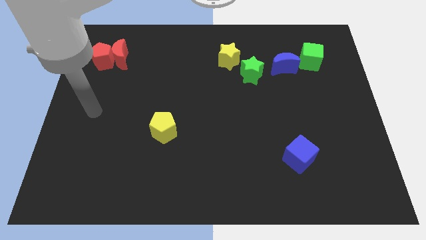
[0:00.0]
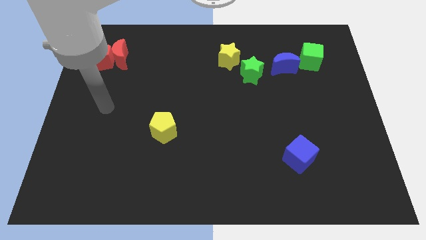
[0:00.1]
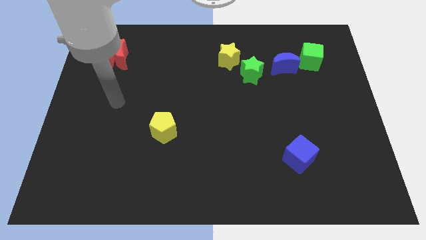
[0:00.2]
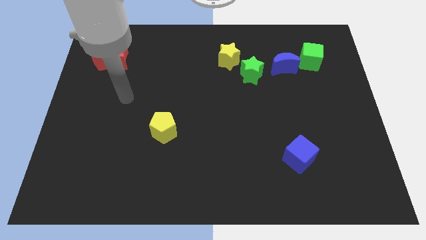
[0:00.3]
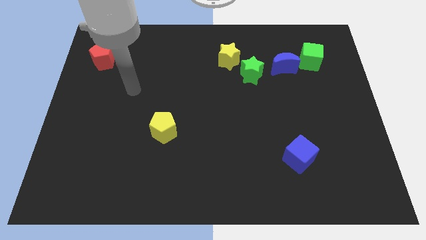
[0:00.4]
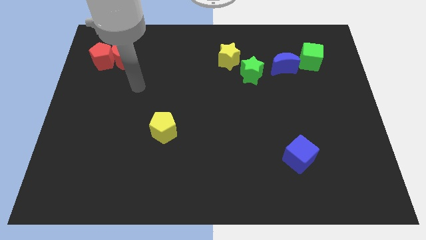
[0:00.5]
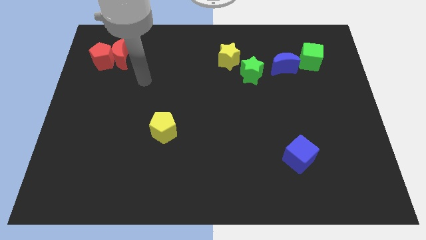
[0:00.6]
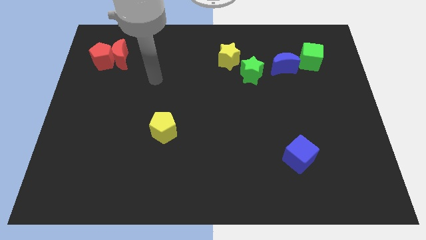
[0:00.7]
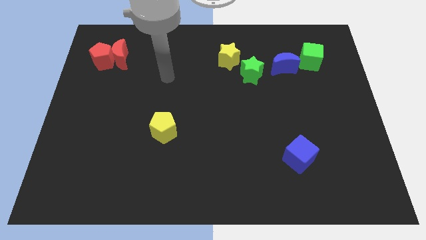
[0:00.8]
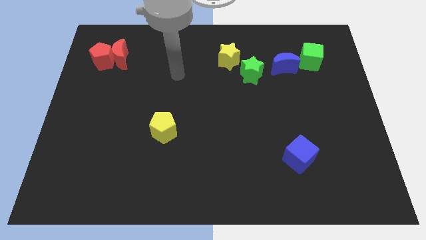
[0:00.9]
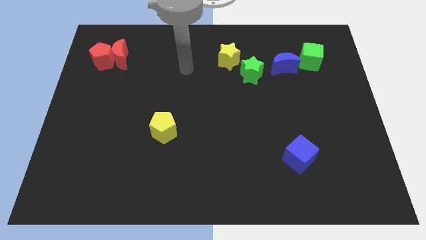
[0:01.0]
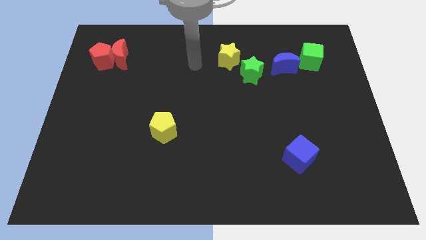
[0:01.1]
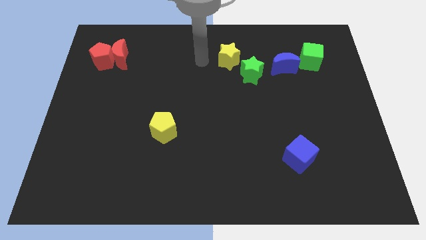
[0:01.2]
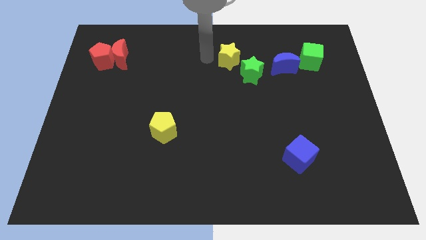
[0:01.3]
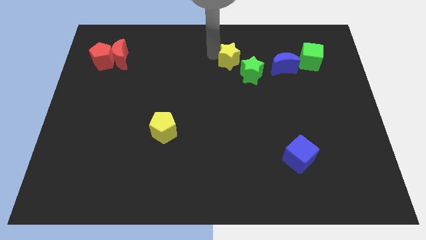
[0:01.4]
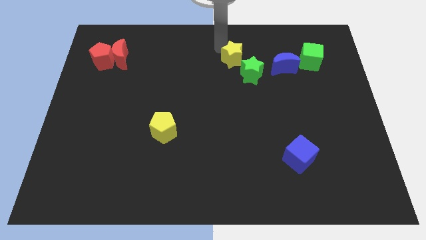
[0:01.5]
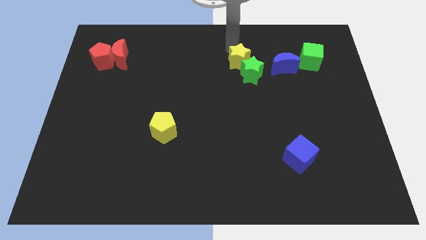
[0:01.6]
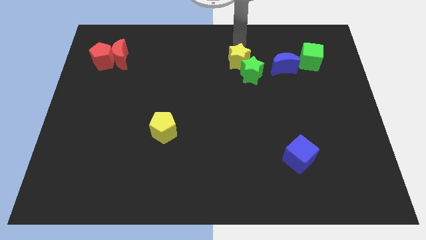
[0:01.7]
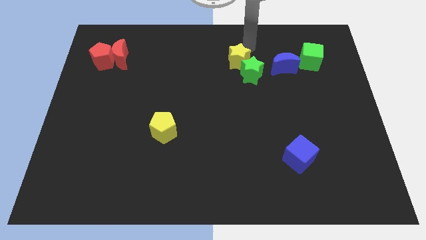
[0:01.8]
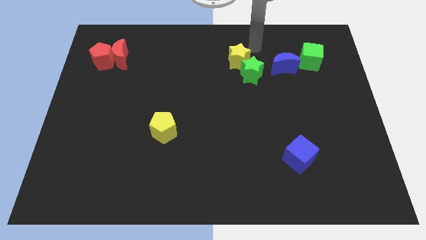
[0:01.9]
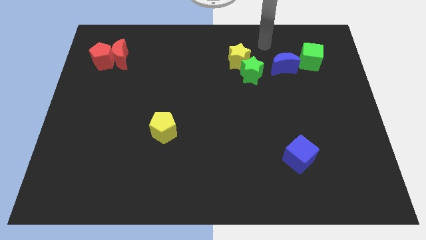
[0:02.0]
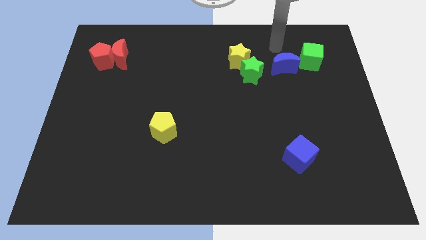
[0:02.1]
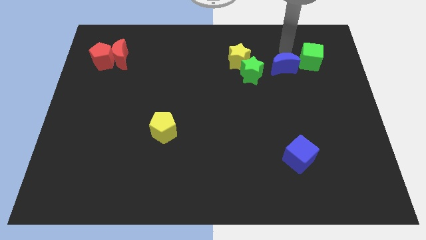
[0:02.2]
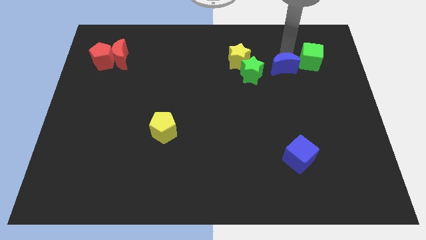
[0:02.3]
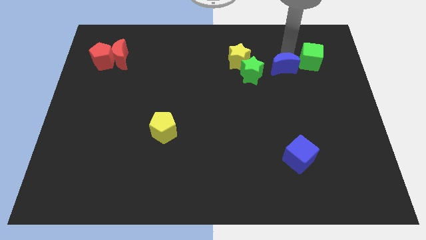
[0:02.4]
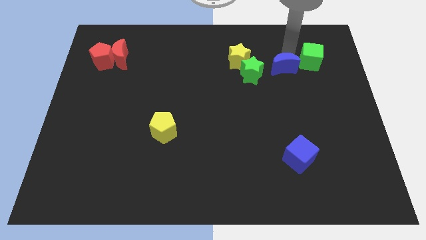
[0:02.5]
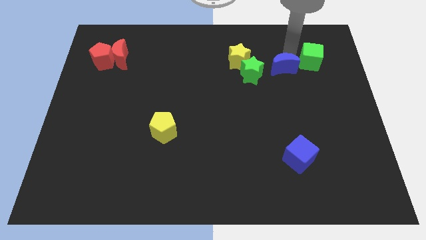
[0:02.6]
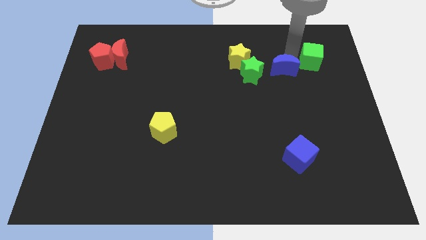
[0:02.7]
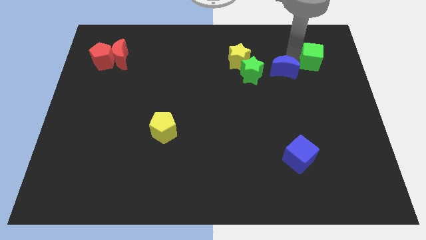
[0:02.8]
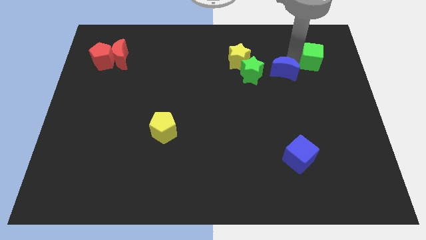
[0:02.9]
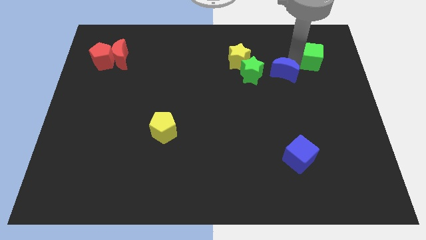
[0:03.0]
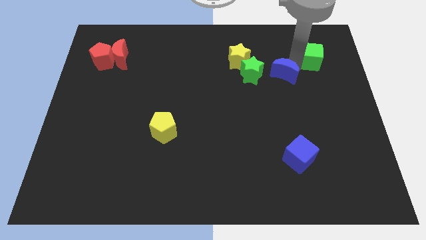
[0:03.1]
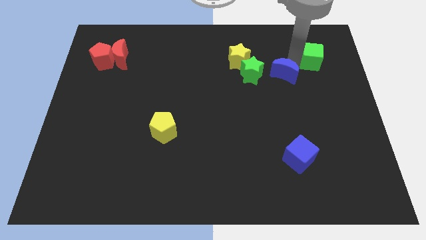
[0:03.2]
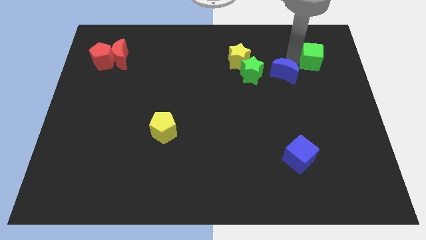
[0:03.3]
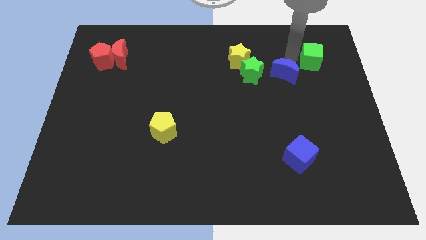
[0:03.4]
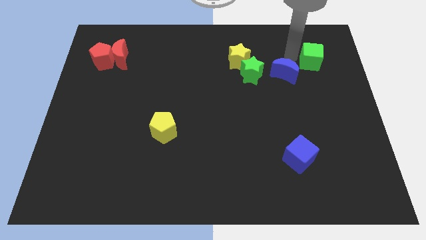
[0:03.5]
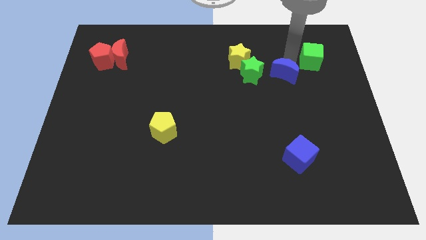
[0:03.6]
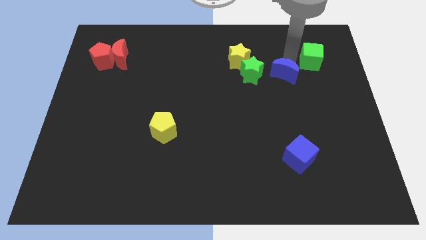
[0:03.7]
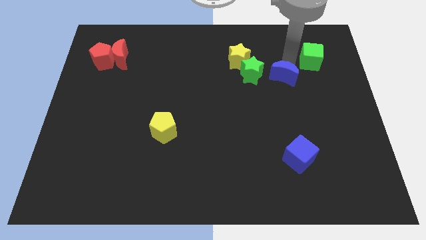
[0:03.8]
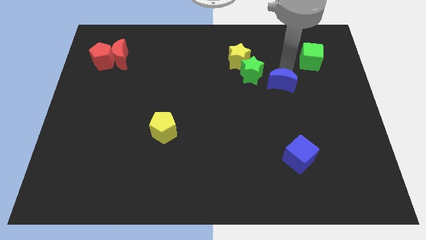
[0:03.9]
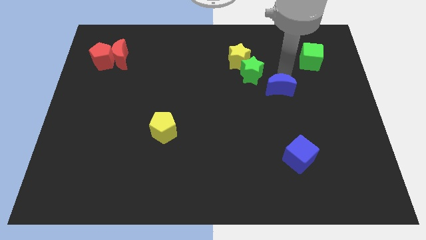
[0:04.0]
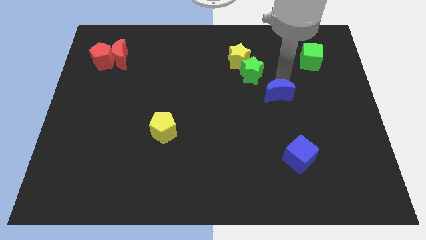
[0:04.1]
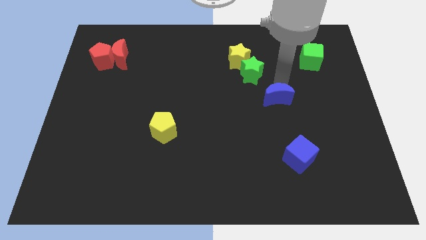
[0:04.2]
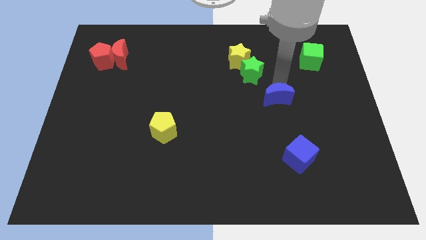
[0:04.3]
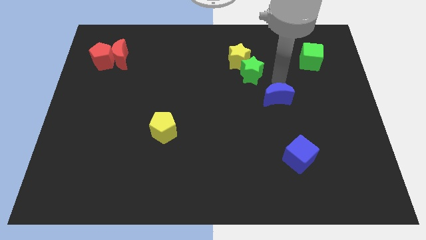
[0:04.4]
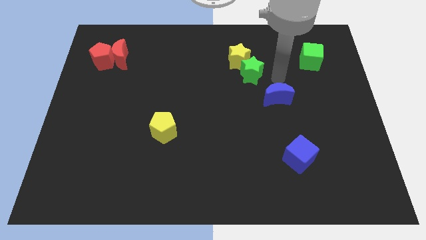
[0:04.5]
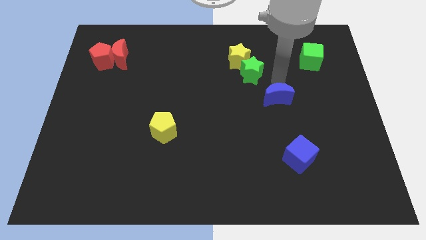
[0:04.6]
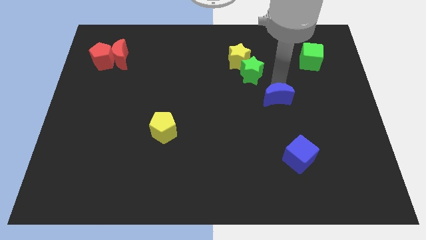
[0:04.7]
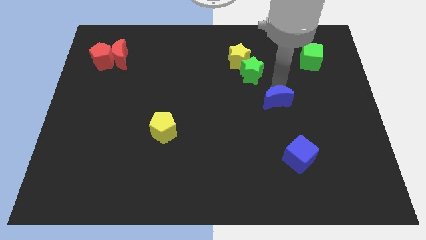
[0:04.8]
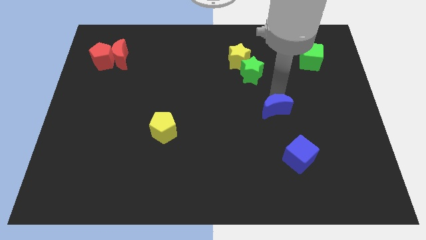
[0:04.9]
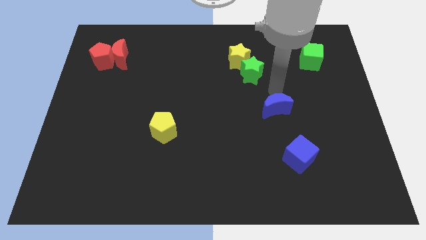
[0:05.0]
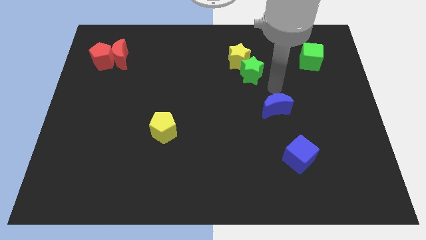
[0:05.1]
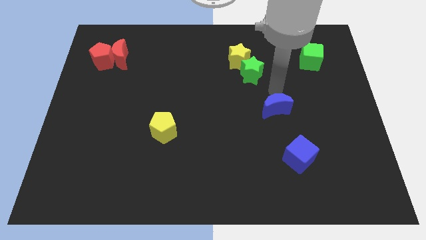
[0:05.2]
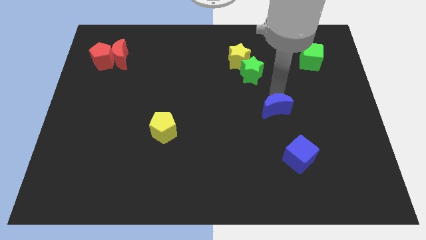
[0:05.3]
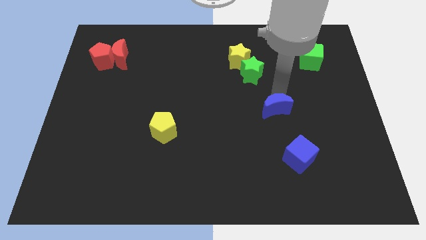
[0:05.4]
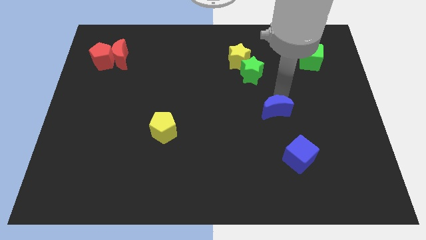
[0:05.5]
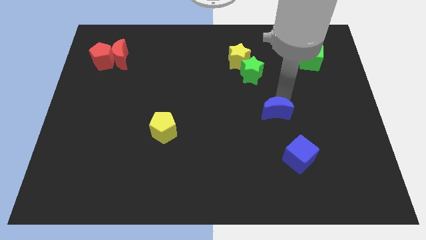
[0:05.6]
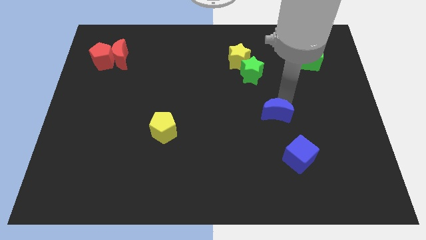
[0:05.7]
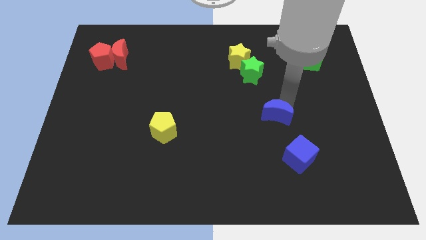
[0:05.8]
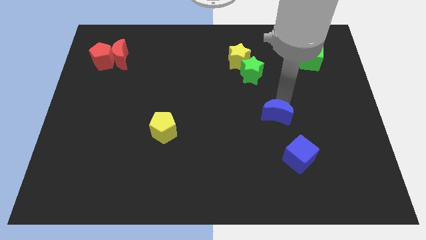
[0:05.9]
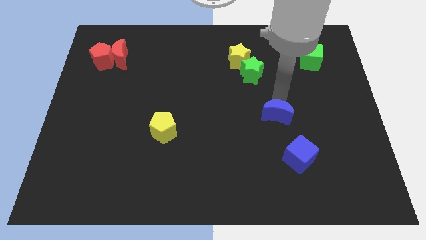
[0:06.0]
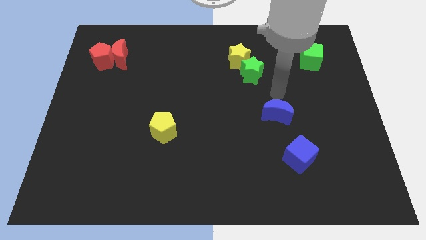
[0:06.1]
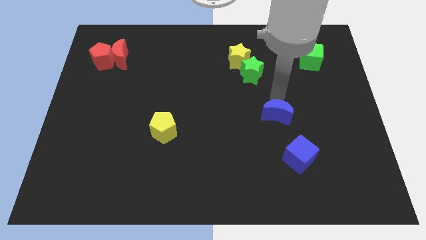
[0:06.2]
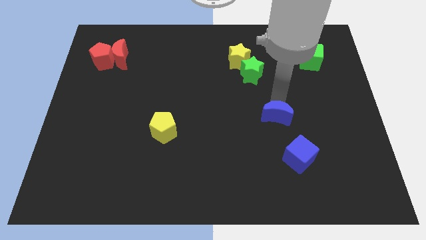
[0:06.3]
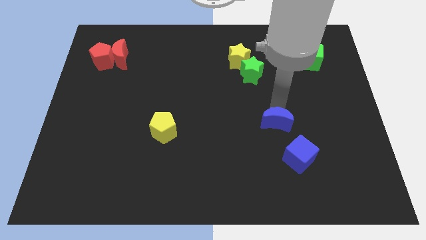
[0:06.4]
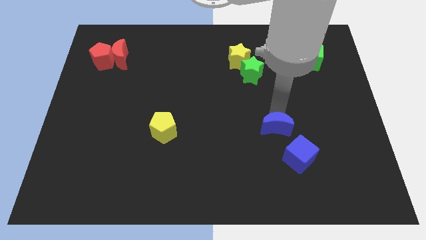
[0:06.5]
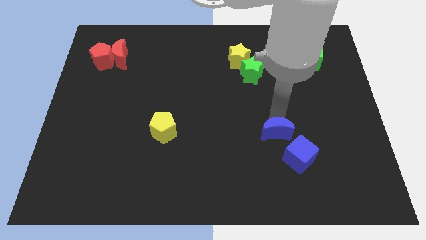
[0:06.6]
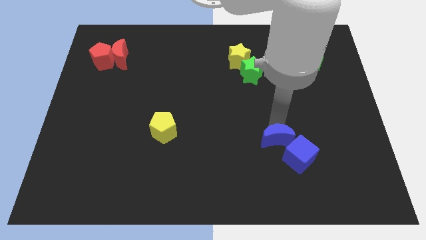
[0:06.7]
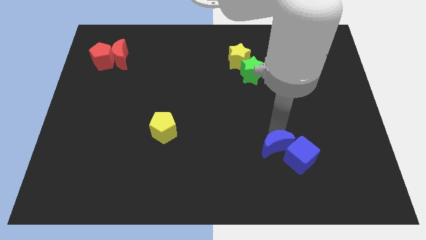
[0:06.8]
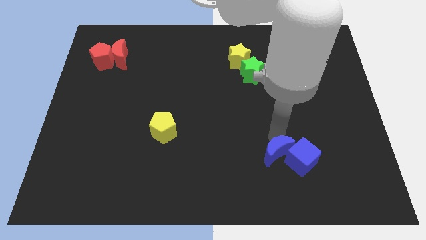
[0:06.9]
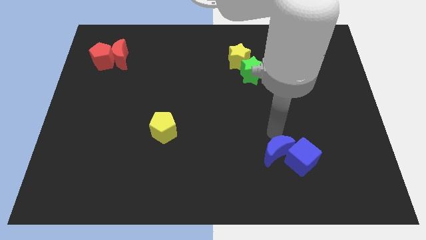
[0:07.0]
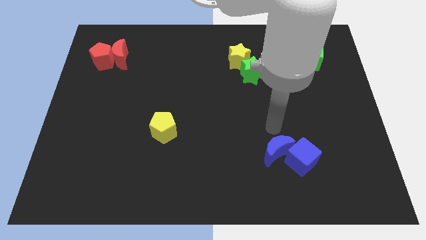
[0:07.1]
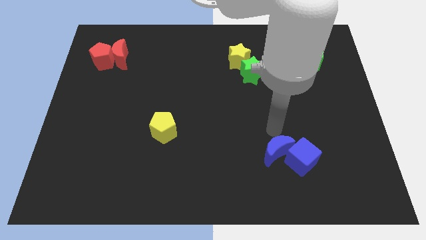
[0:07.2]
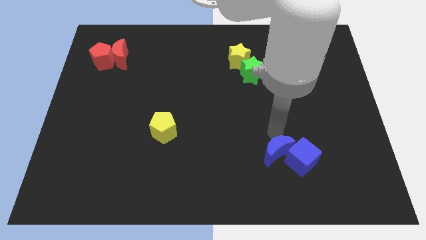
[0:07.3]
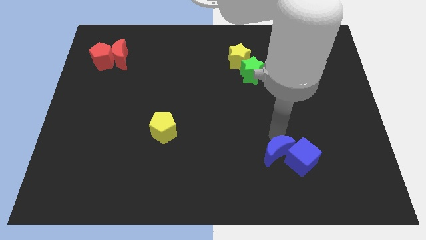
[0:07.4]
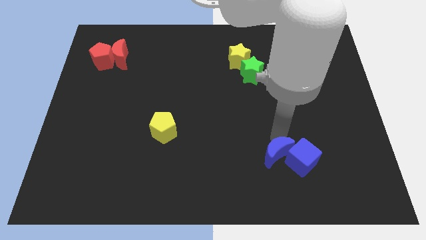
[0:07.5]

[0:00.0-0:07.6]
push the blue moon diagonally down and to the left of the blue cube

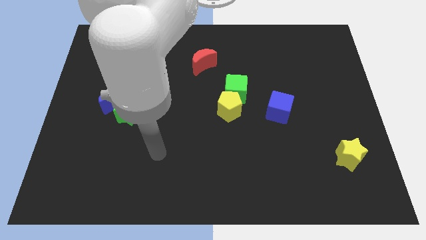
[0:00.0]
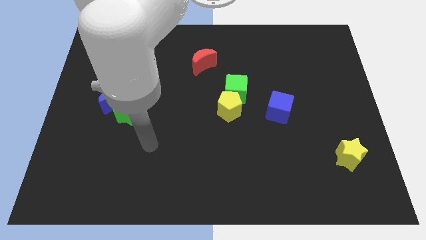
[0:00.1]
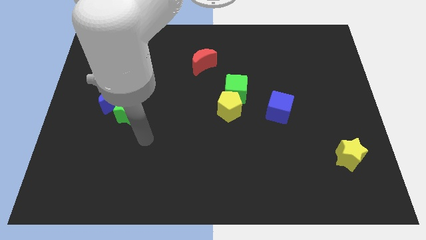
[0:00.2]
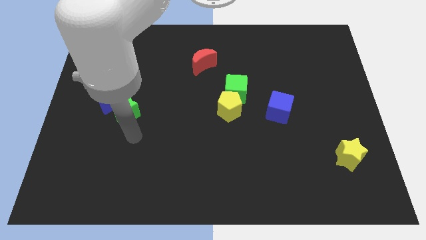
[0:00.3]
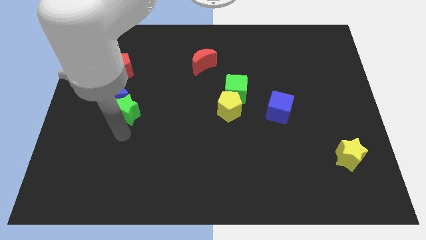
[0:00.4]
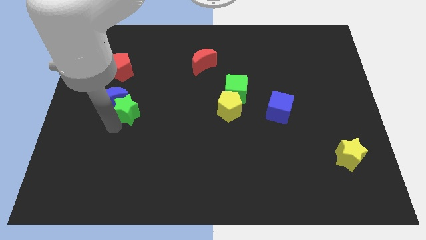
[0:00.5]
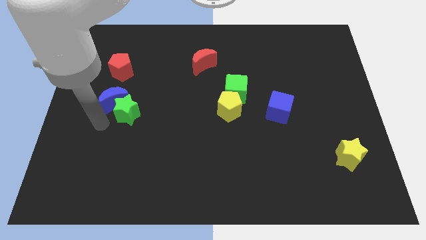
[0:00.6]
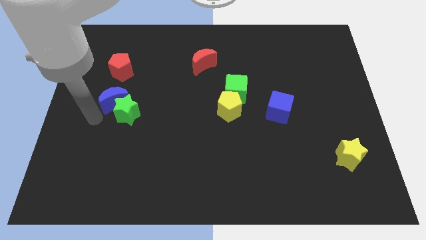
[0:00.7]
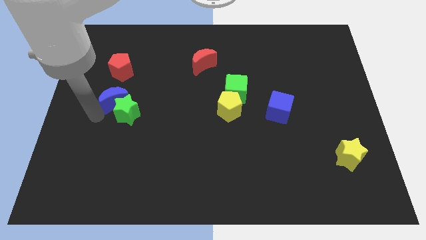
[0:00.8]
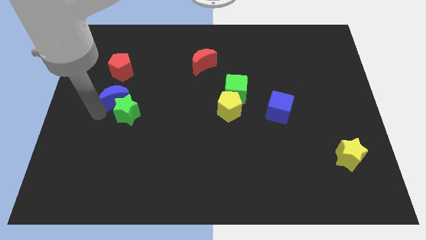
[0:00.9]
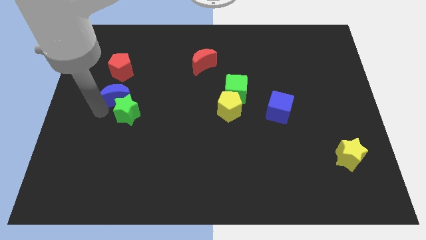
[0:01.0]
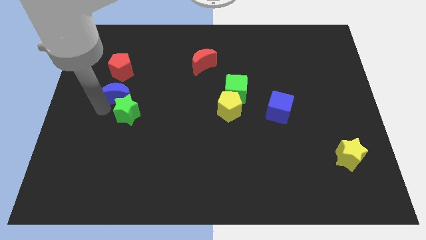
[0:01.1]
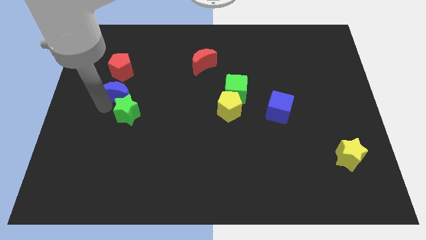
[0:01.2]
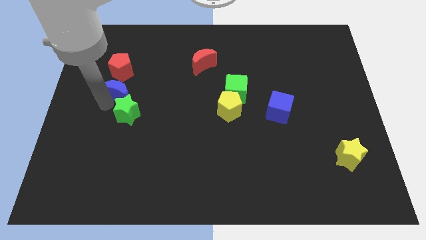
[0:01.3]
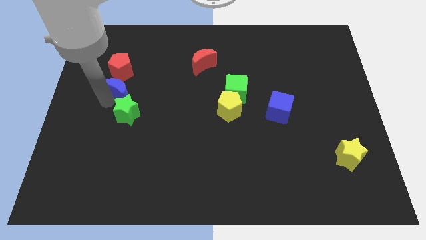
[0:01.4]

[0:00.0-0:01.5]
put the blue moon diagonally down and to the right of the red pentagon
